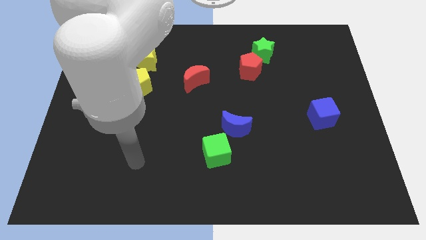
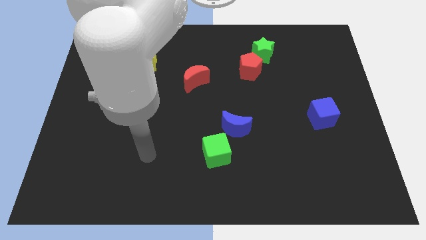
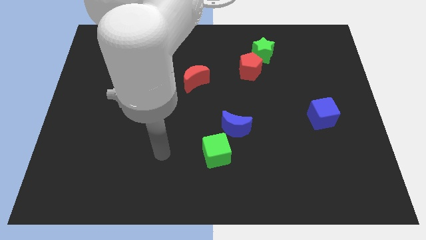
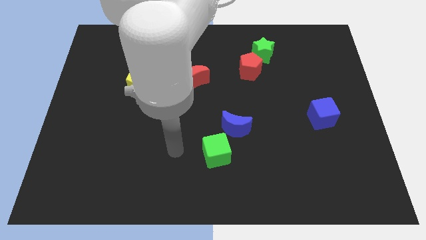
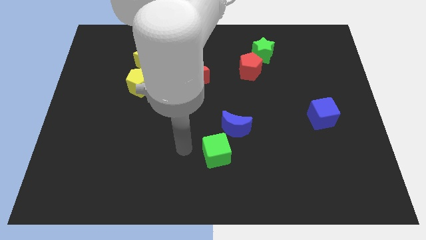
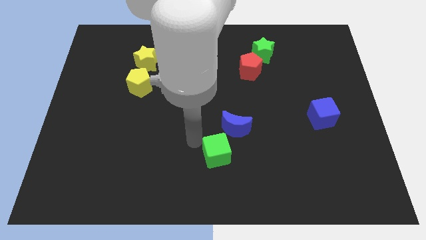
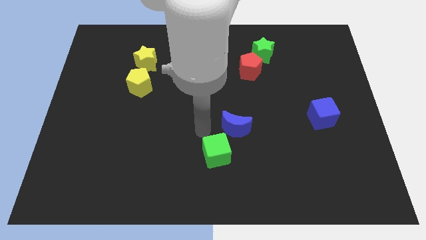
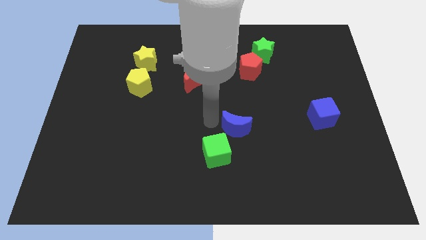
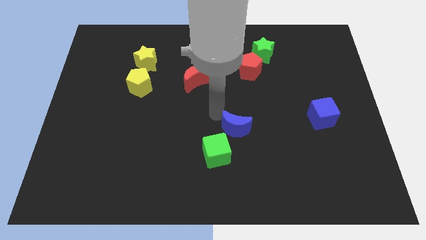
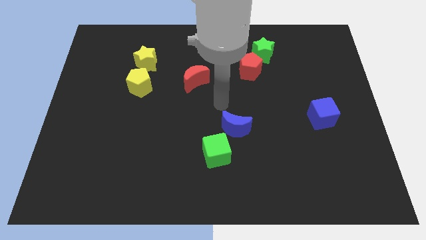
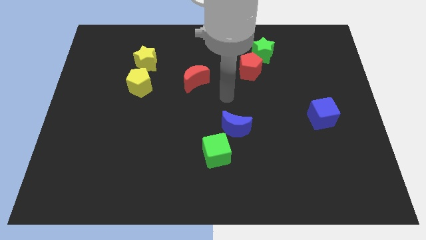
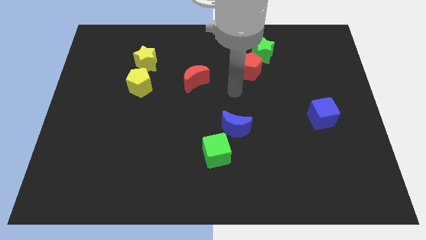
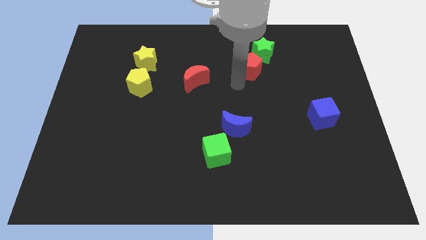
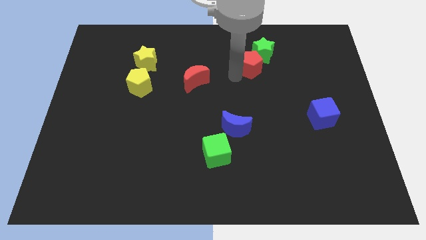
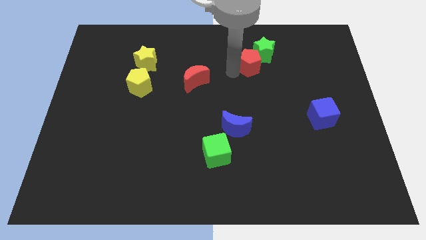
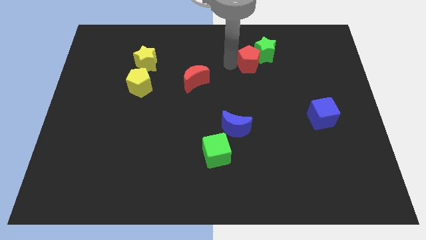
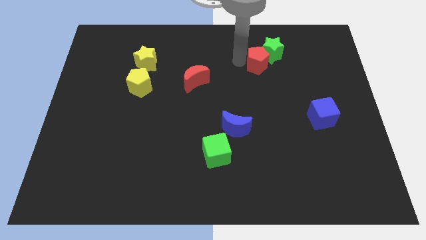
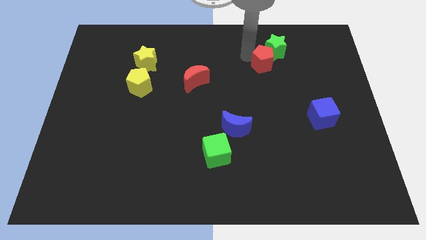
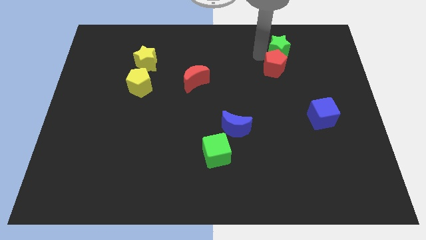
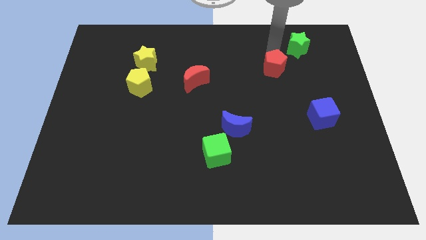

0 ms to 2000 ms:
pull the red pentagon apart from the green star

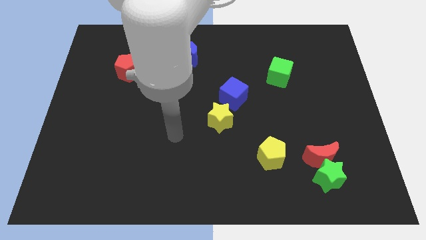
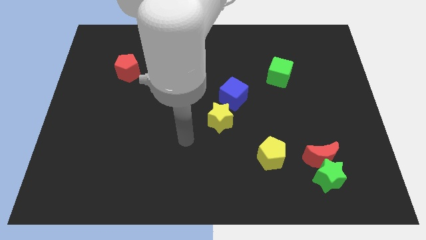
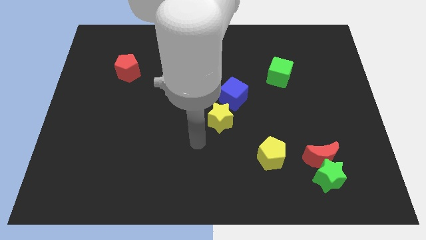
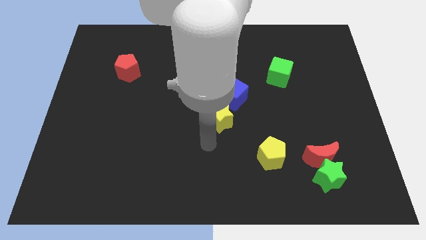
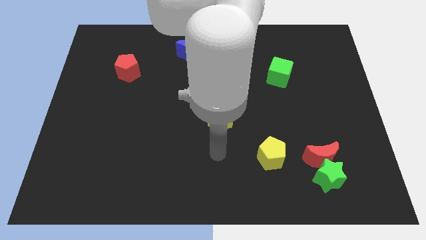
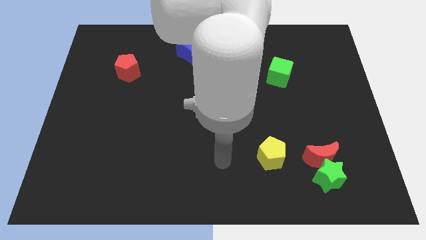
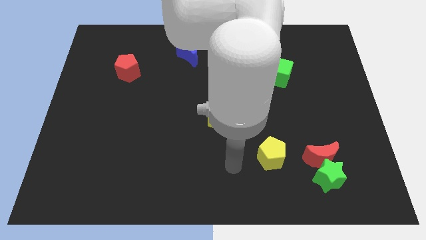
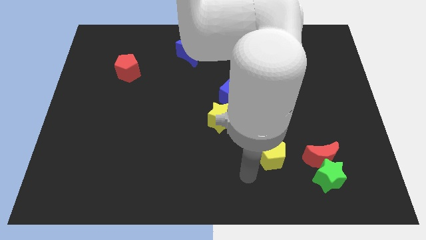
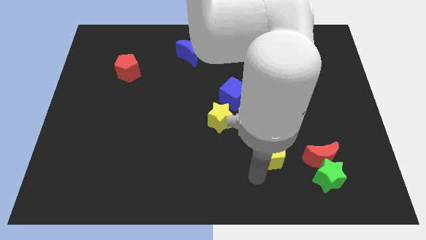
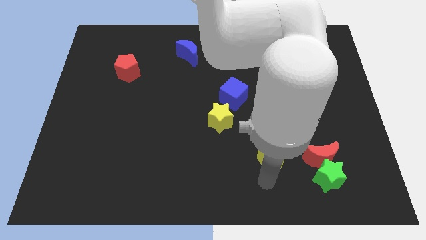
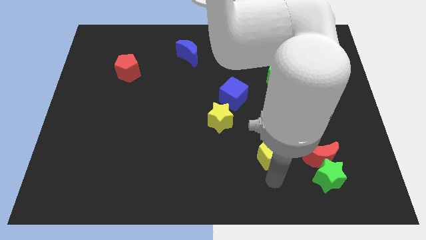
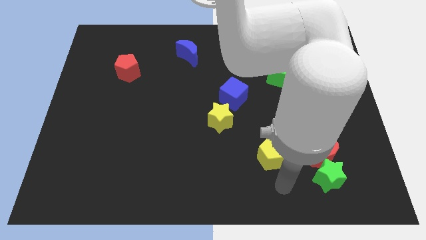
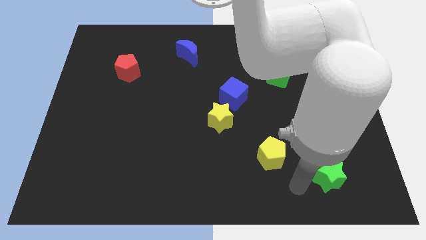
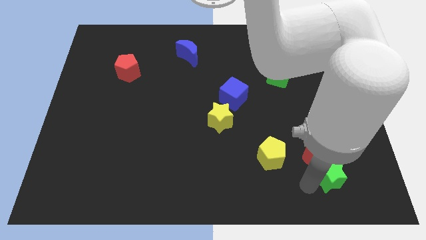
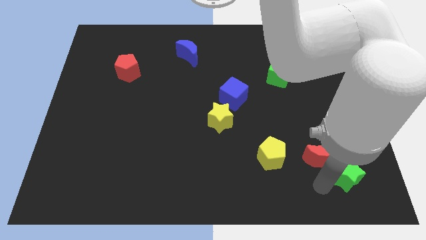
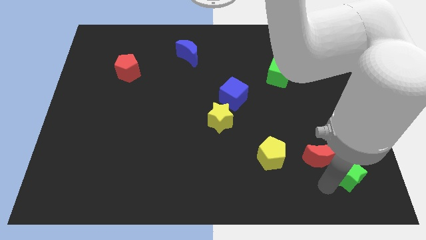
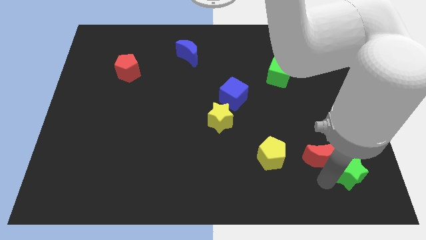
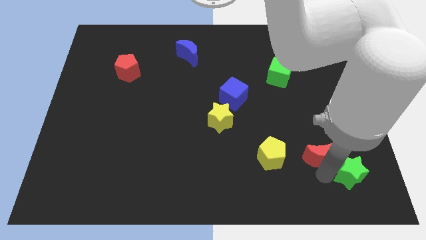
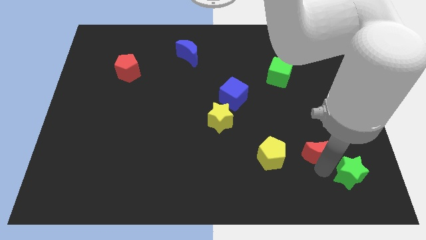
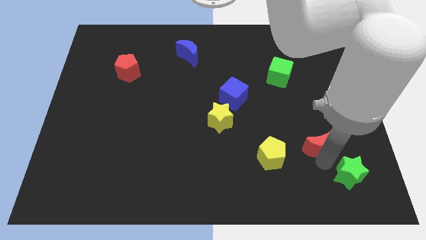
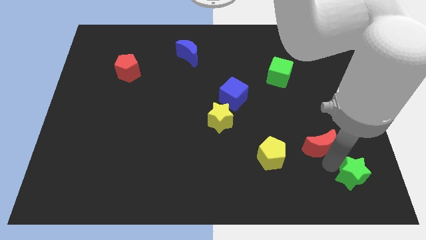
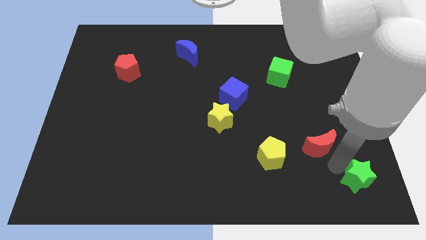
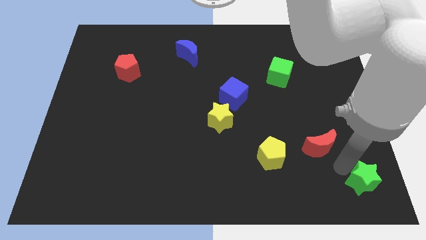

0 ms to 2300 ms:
move the red moon away from the green star

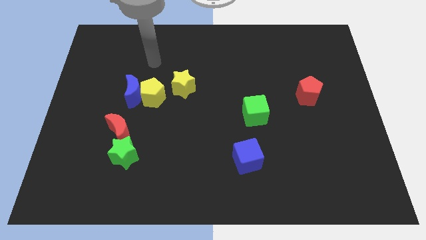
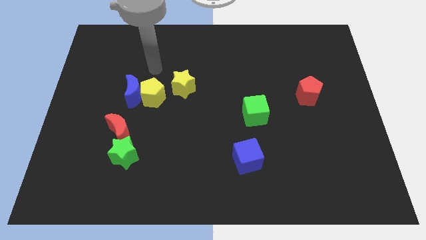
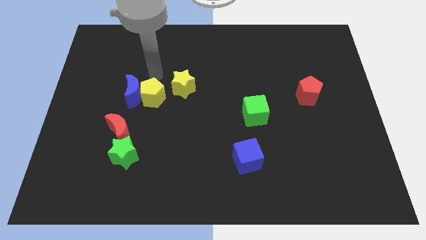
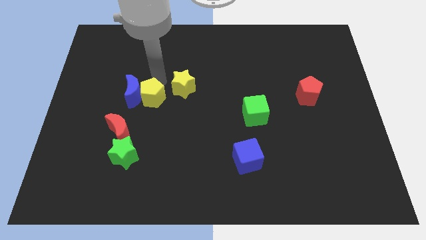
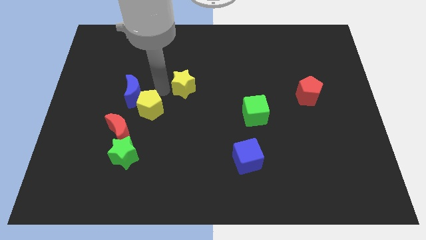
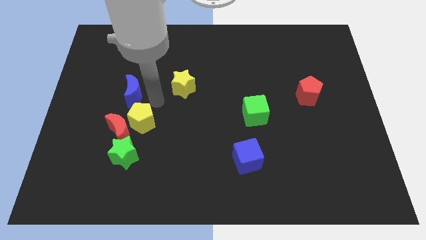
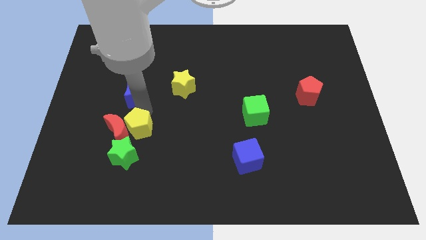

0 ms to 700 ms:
separate the blue moon from the yellow pentagon

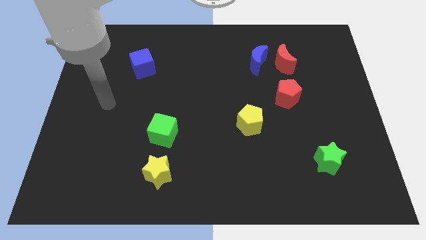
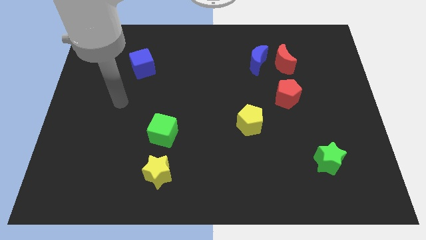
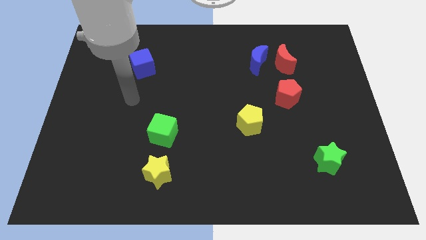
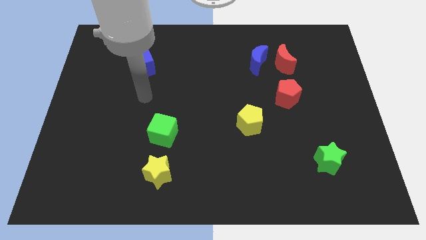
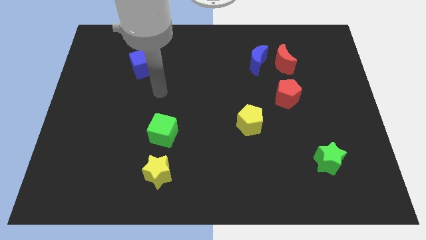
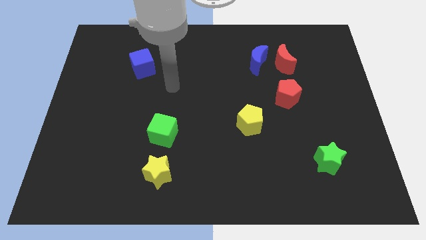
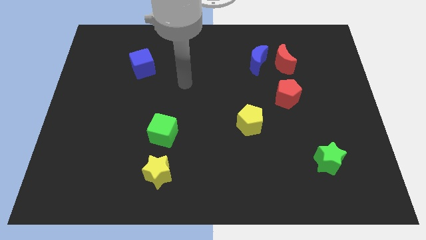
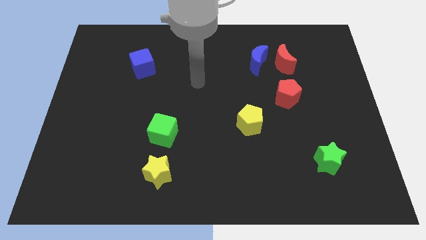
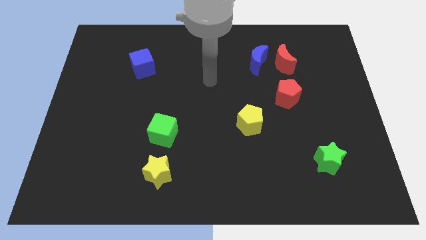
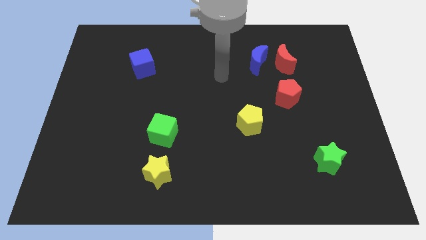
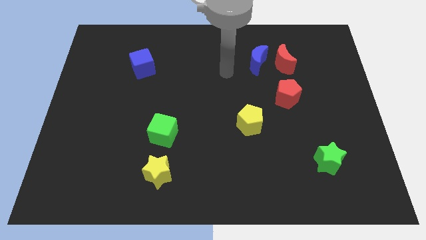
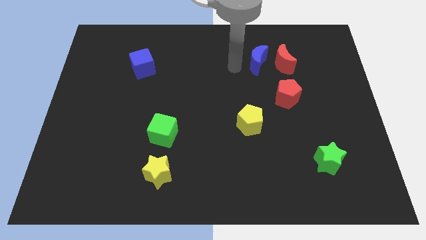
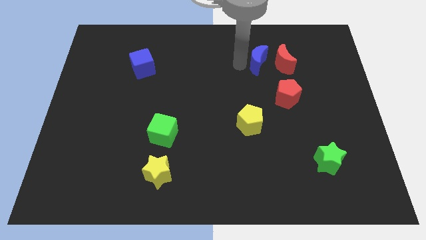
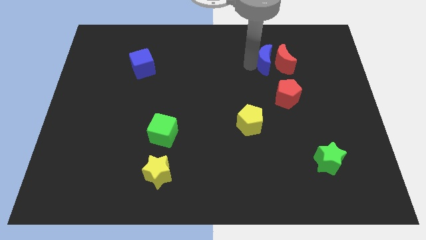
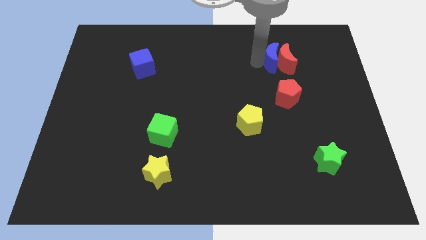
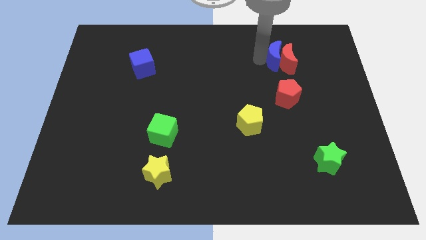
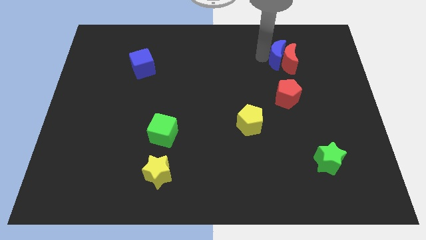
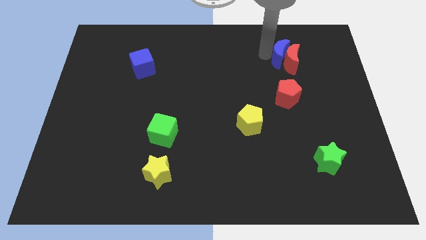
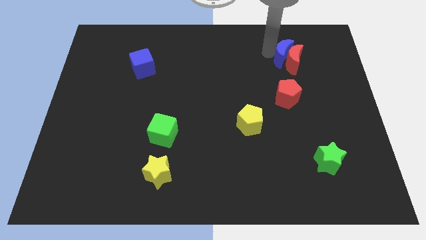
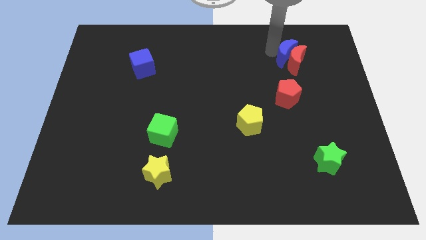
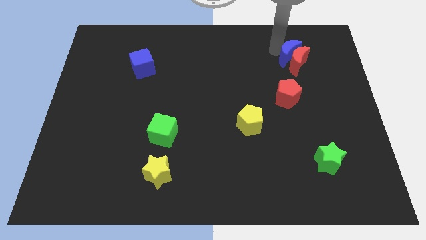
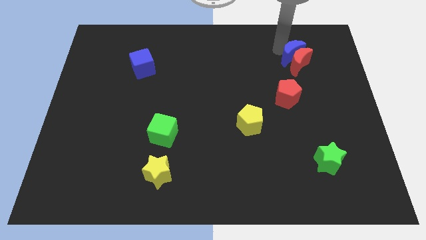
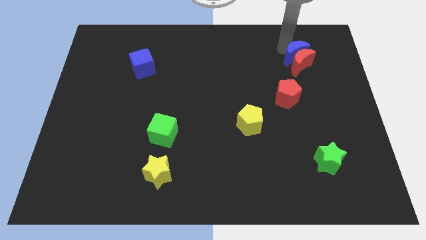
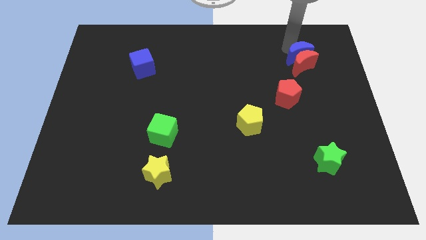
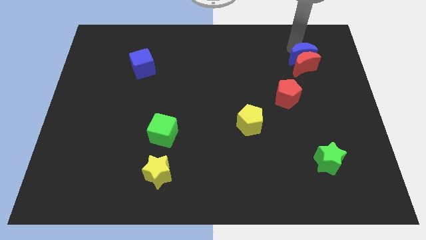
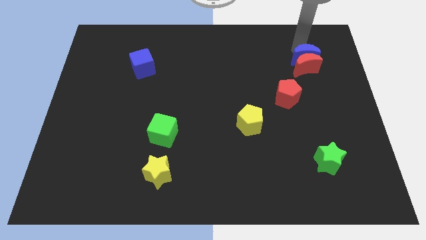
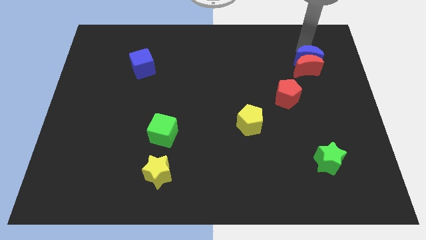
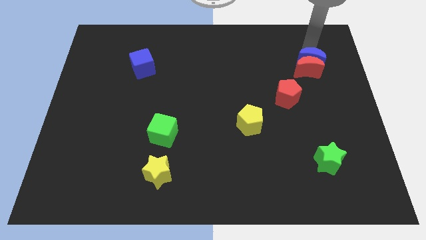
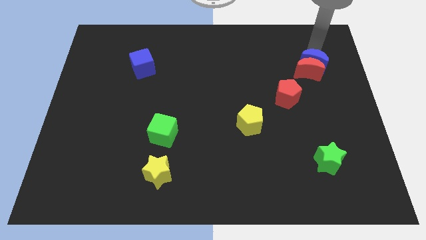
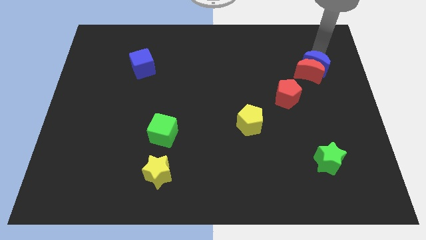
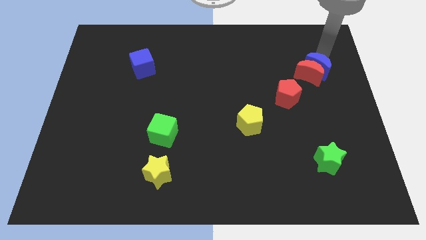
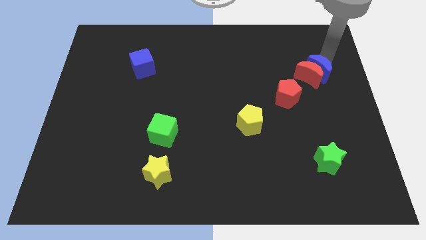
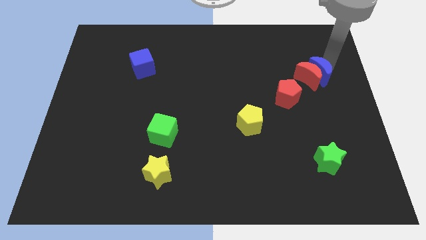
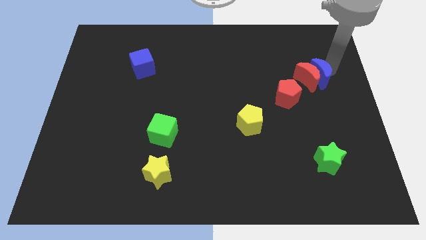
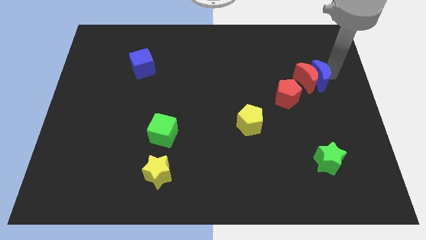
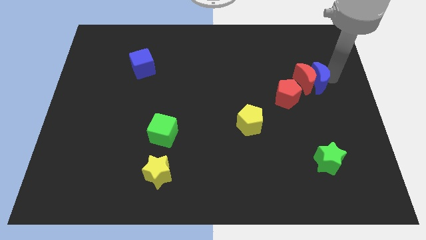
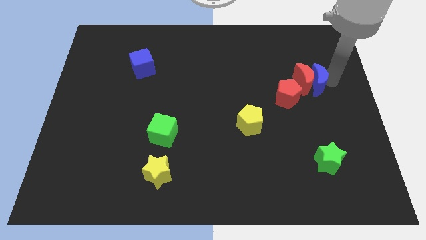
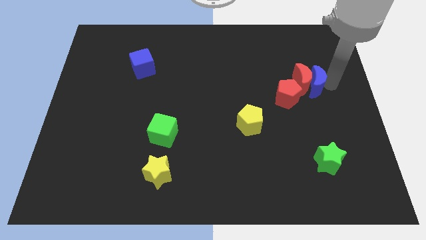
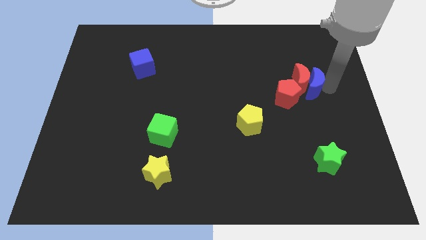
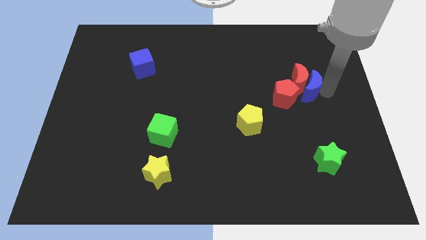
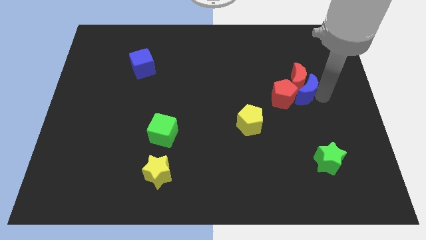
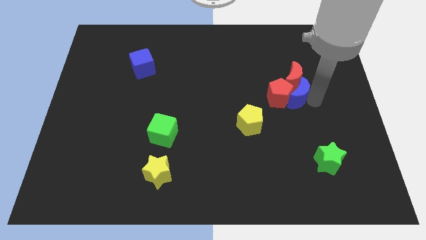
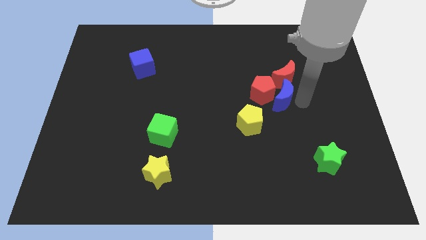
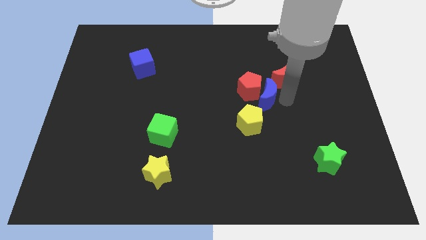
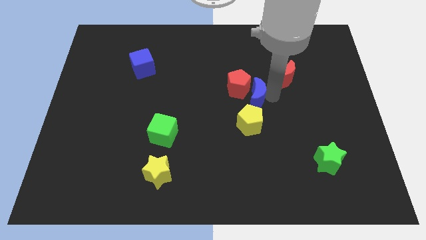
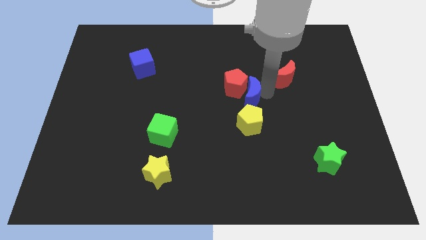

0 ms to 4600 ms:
move the red moon away from the blue moon
